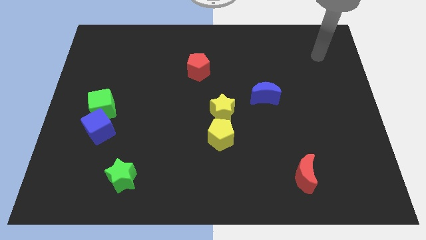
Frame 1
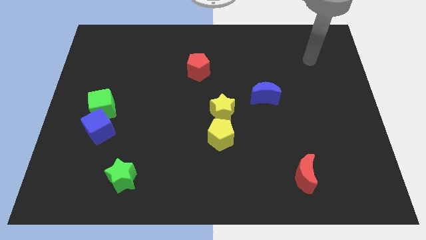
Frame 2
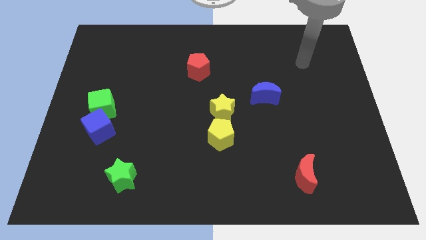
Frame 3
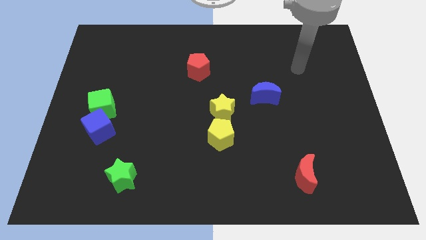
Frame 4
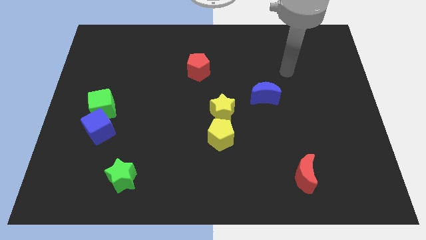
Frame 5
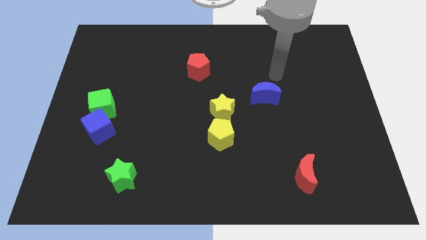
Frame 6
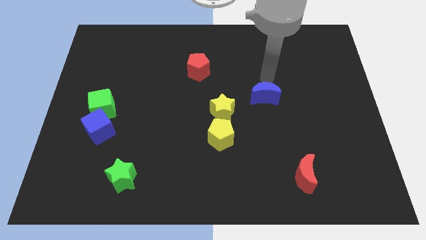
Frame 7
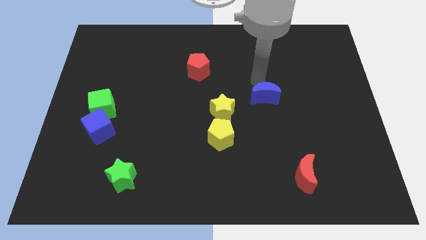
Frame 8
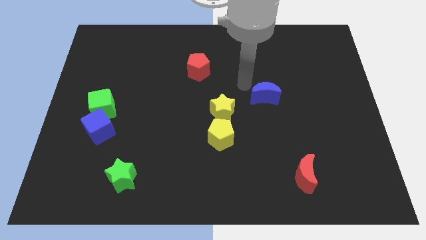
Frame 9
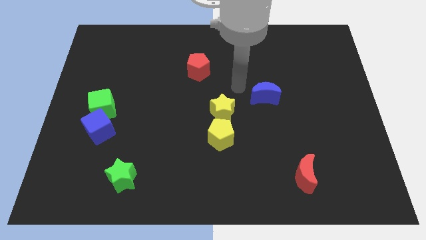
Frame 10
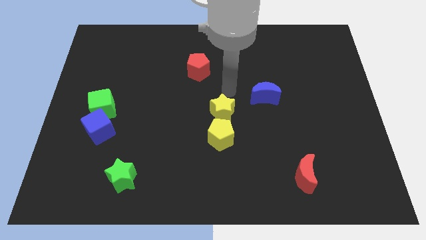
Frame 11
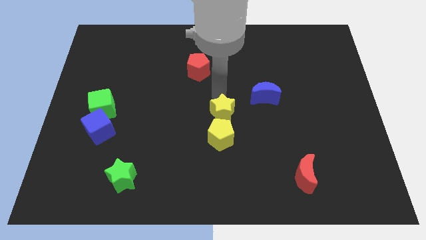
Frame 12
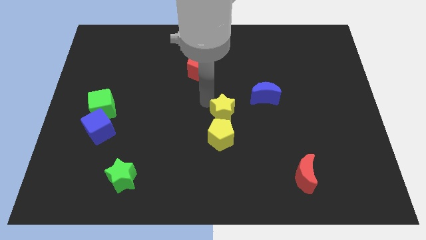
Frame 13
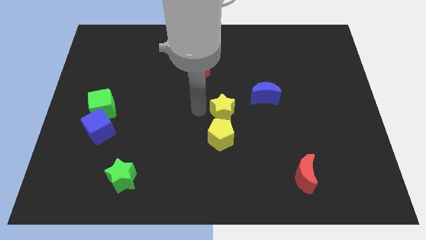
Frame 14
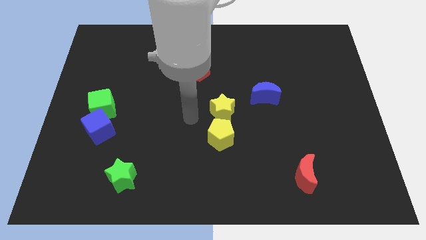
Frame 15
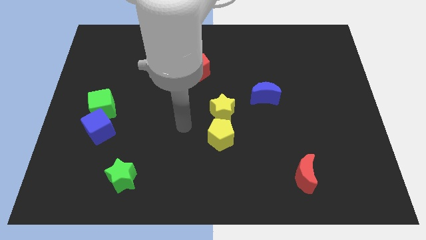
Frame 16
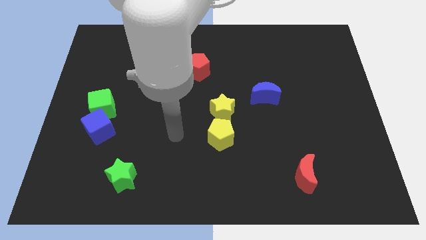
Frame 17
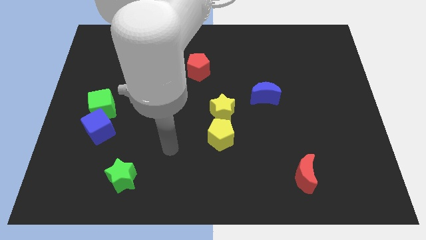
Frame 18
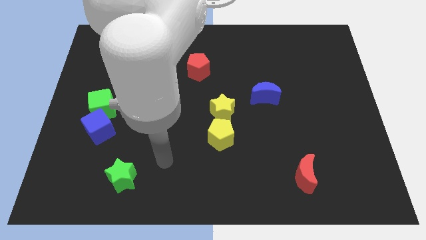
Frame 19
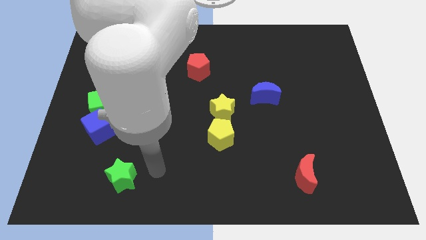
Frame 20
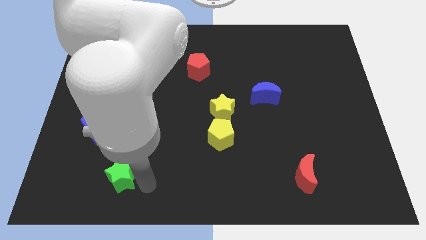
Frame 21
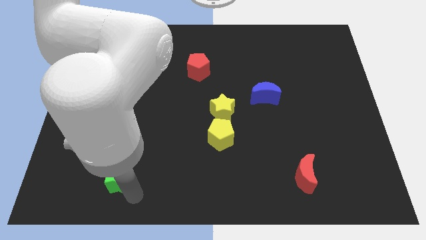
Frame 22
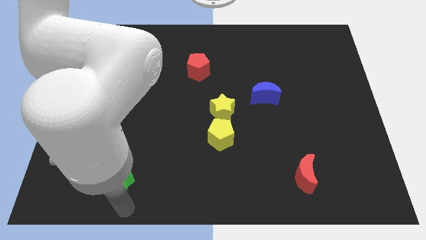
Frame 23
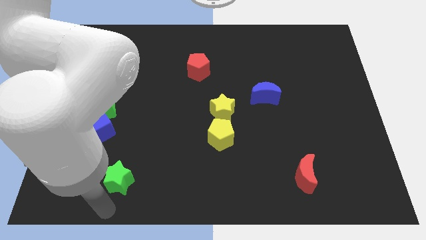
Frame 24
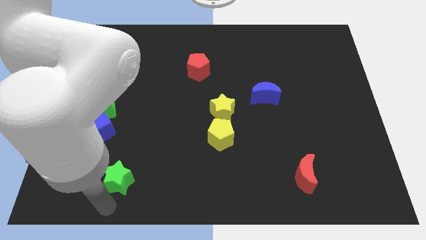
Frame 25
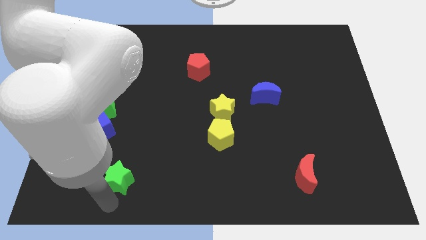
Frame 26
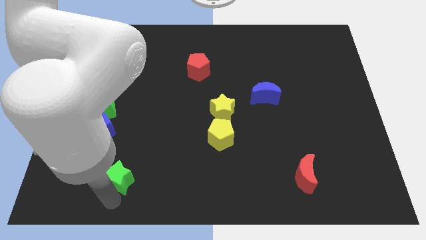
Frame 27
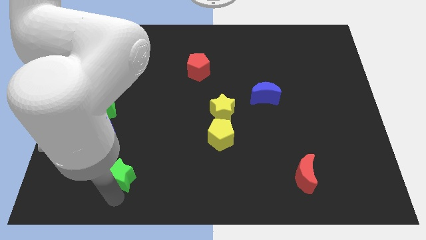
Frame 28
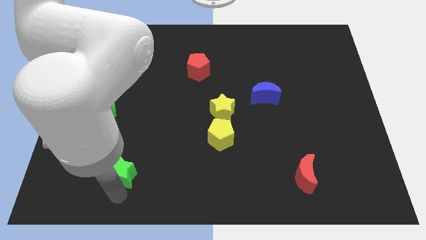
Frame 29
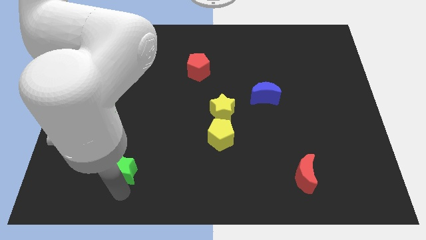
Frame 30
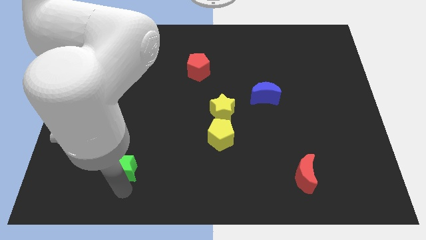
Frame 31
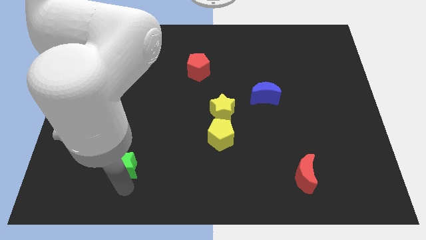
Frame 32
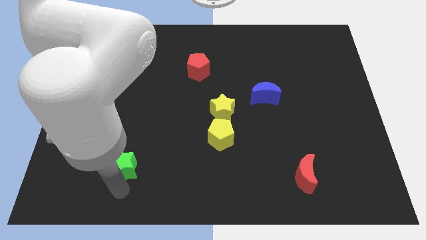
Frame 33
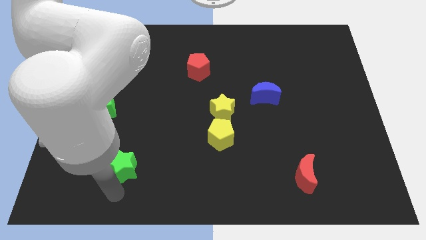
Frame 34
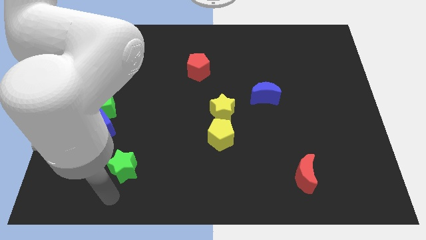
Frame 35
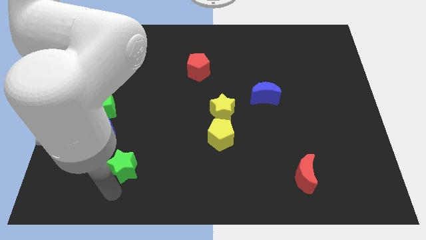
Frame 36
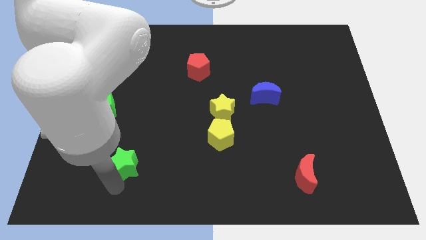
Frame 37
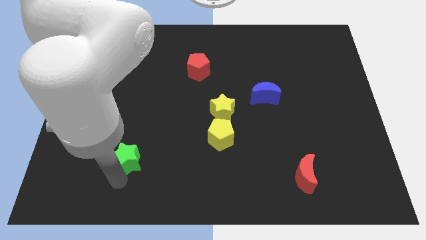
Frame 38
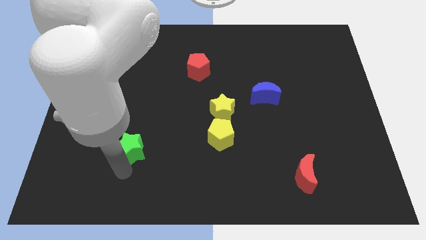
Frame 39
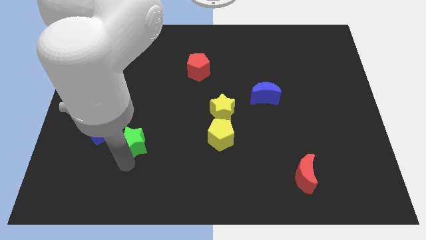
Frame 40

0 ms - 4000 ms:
slide the green star right of the blue cube

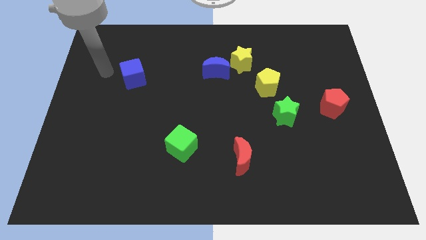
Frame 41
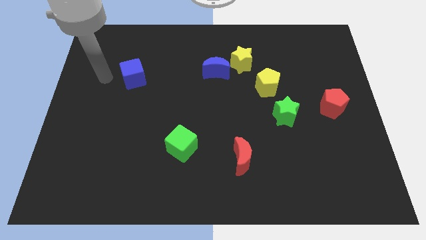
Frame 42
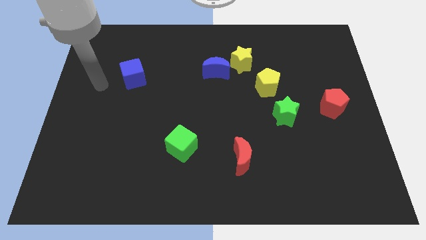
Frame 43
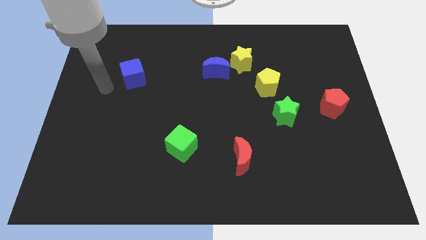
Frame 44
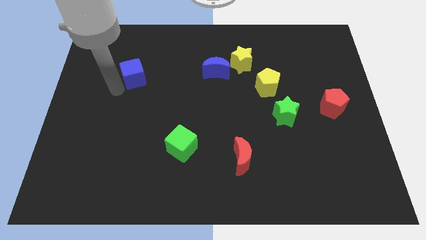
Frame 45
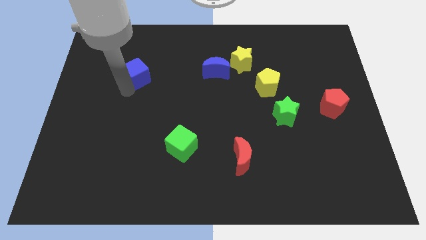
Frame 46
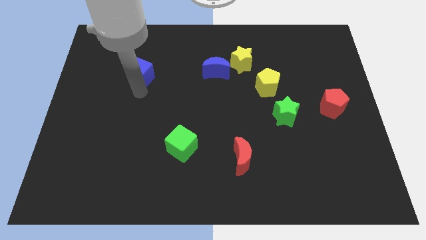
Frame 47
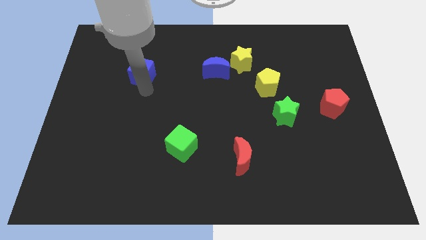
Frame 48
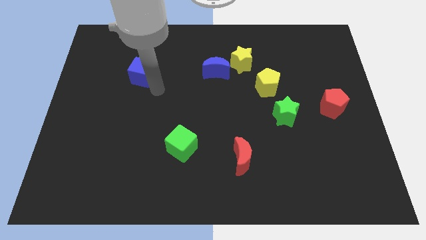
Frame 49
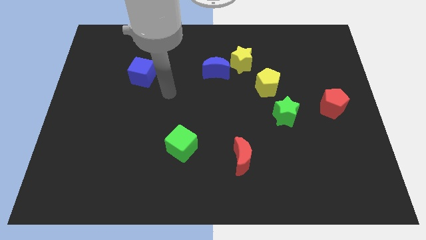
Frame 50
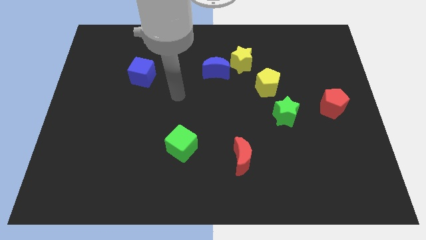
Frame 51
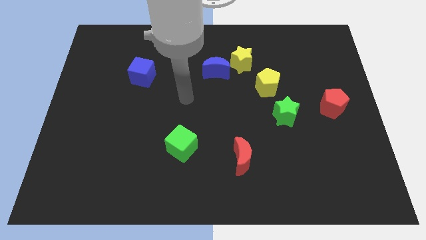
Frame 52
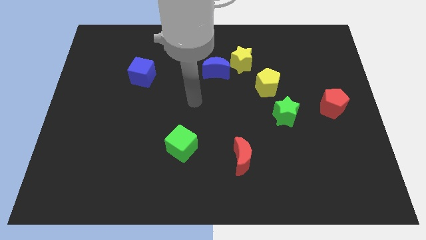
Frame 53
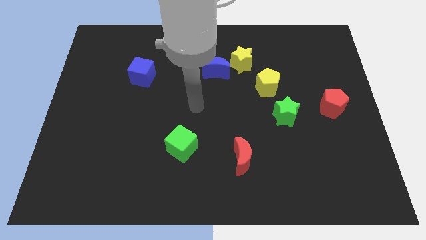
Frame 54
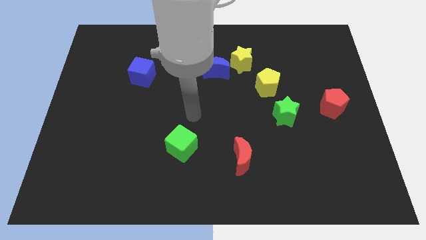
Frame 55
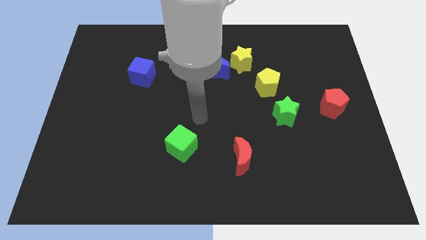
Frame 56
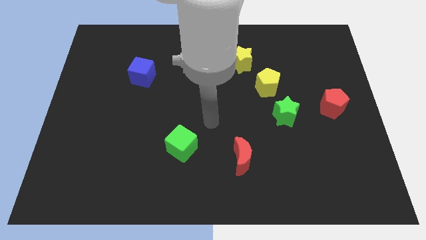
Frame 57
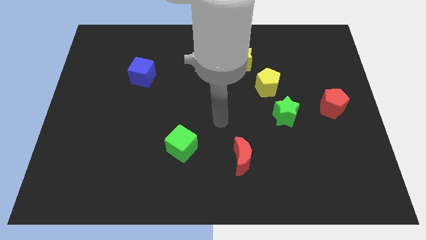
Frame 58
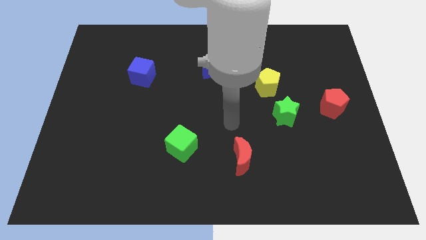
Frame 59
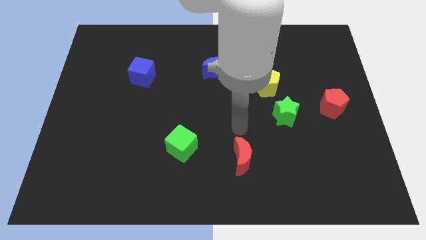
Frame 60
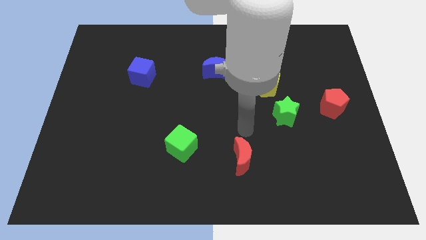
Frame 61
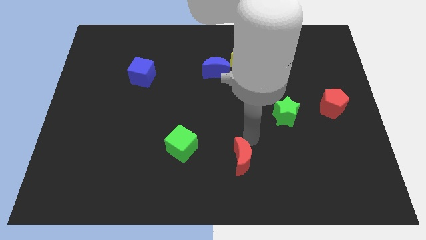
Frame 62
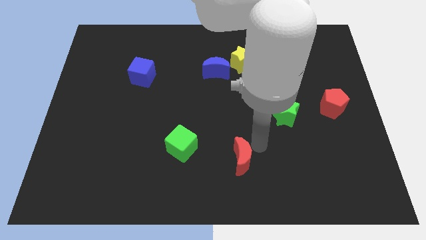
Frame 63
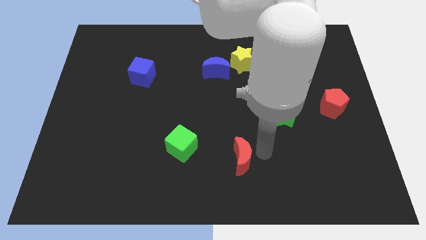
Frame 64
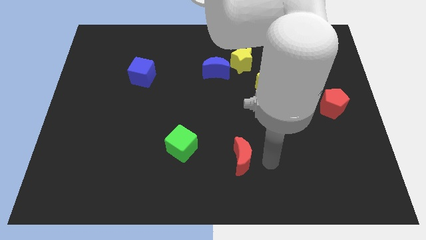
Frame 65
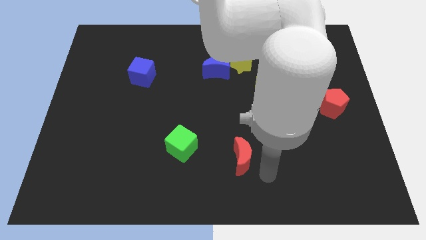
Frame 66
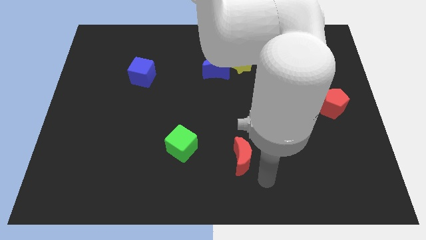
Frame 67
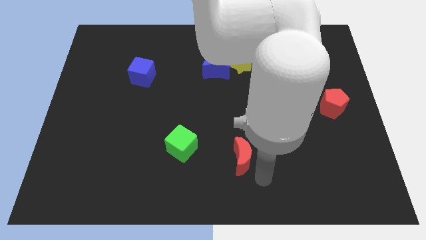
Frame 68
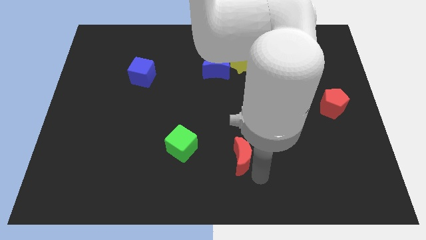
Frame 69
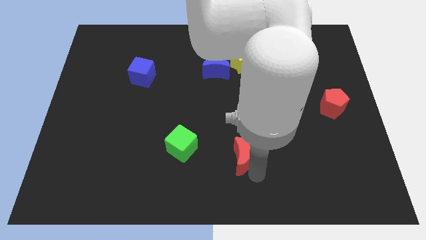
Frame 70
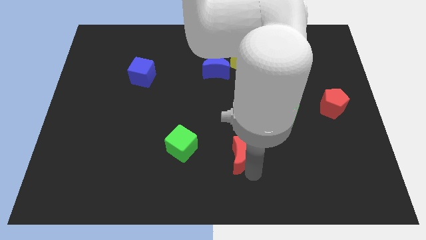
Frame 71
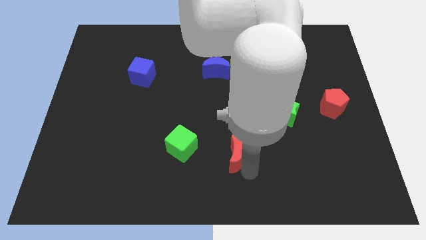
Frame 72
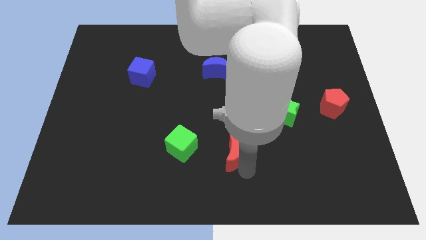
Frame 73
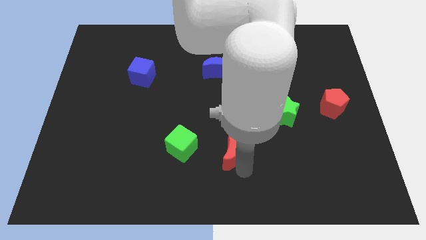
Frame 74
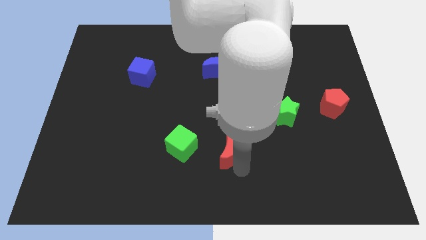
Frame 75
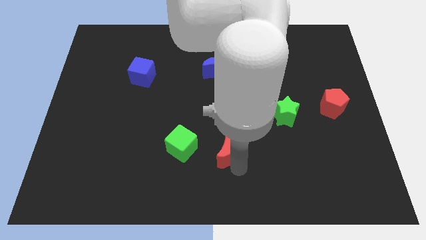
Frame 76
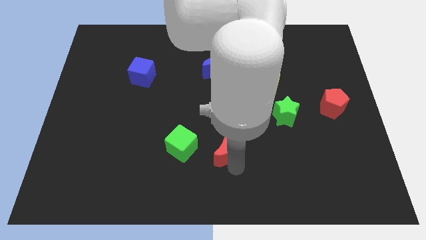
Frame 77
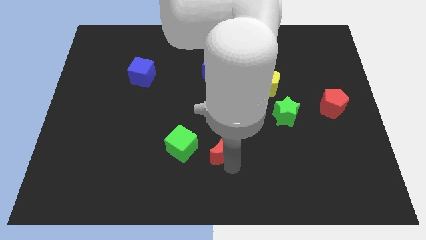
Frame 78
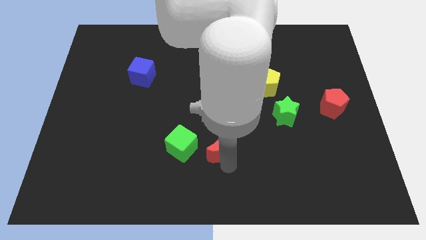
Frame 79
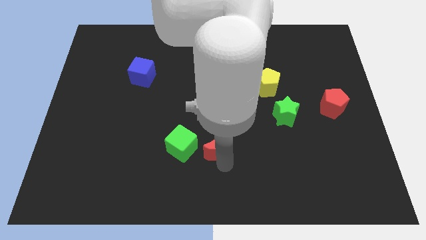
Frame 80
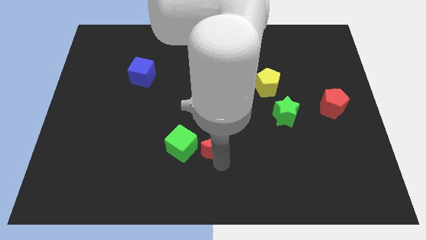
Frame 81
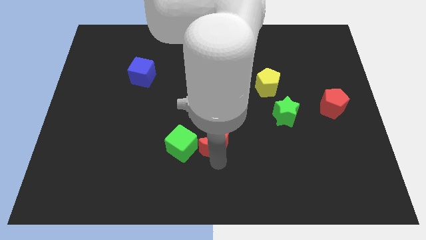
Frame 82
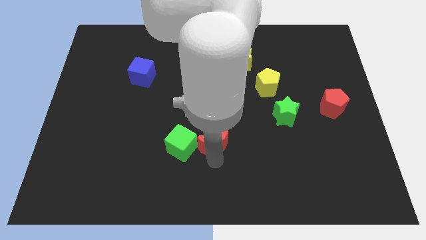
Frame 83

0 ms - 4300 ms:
push the red moon to the top right side of the green cube
